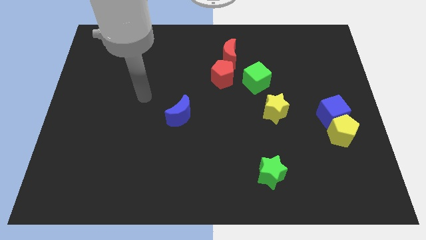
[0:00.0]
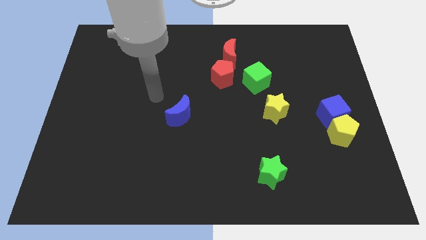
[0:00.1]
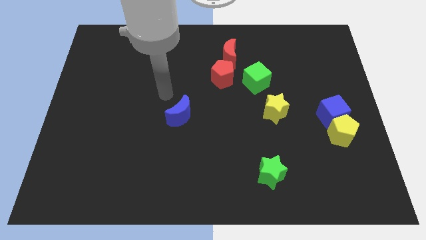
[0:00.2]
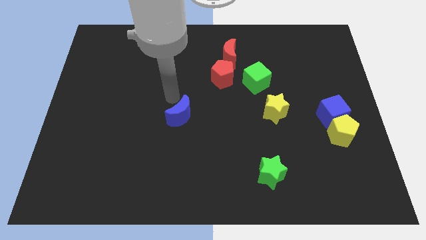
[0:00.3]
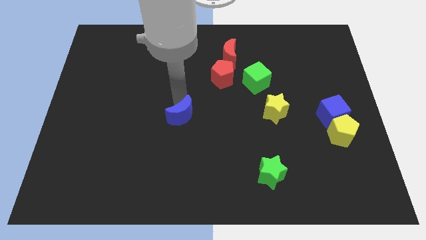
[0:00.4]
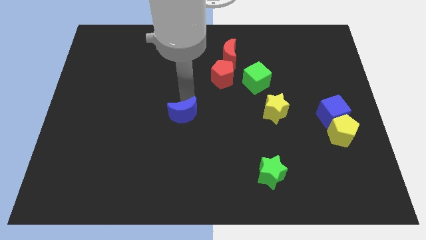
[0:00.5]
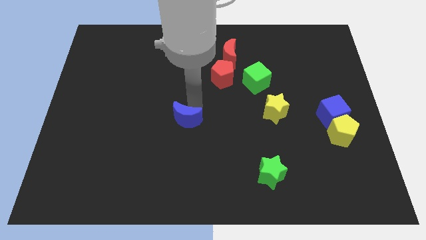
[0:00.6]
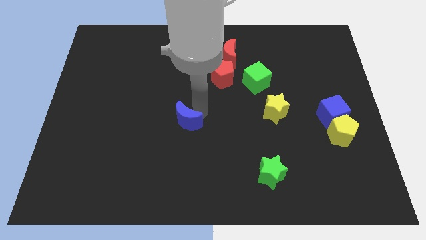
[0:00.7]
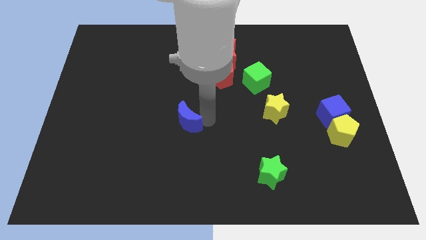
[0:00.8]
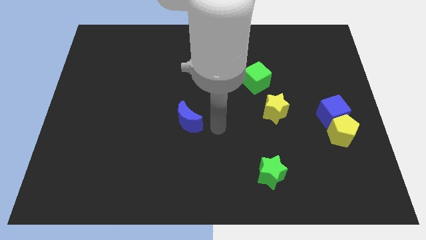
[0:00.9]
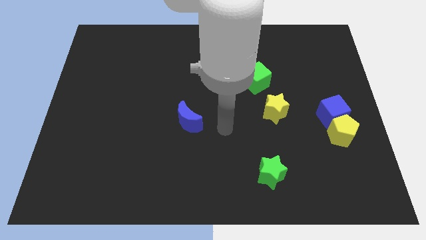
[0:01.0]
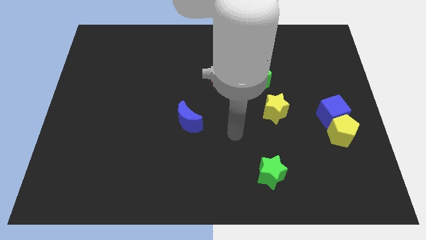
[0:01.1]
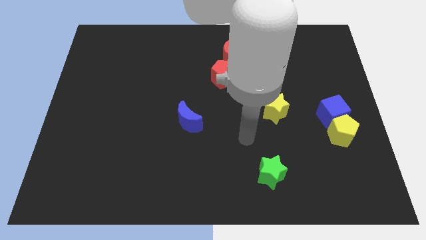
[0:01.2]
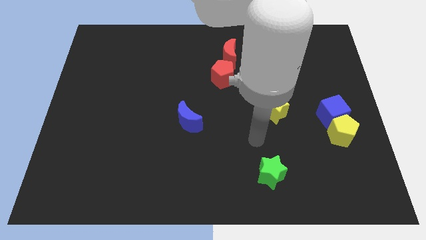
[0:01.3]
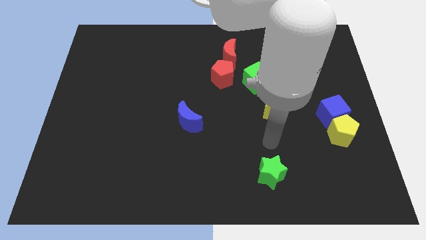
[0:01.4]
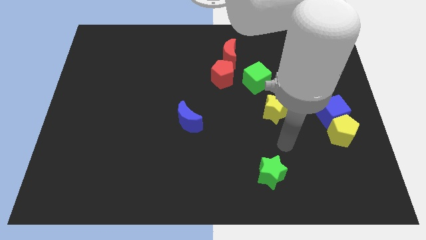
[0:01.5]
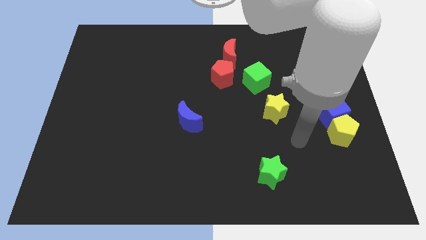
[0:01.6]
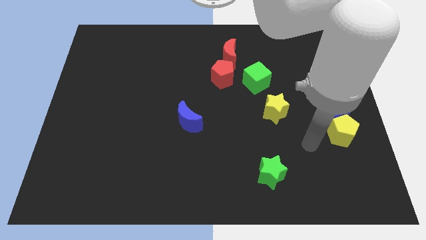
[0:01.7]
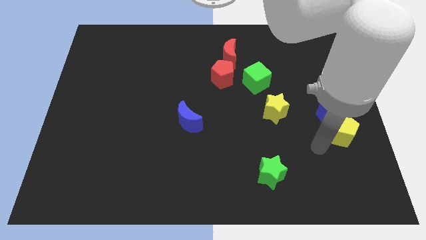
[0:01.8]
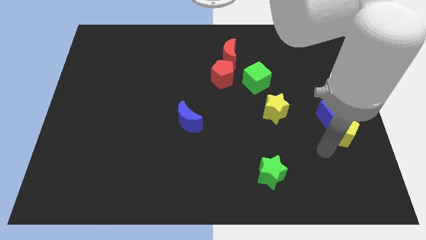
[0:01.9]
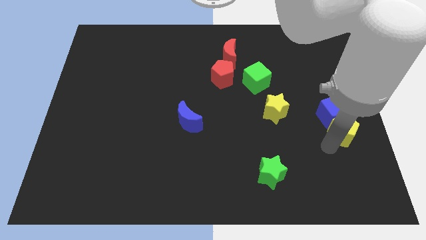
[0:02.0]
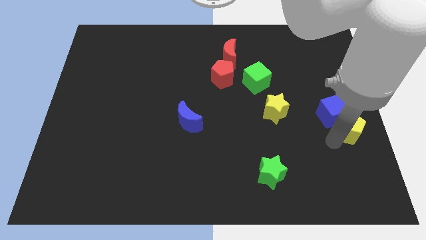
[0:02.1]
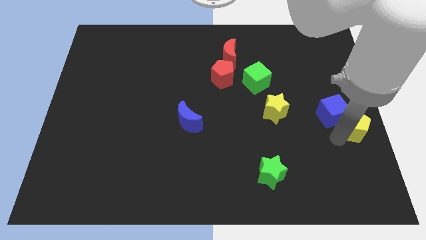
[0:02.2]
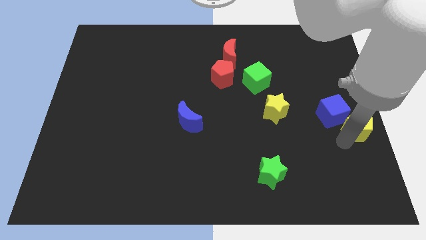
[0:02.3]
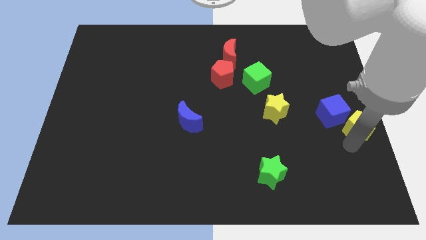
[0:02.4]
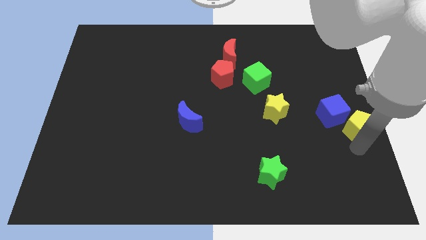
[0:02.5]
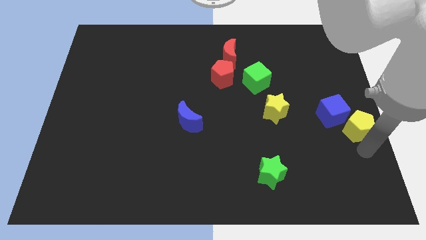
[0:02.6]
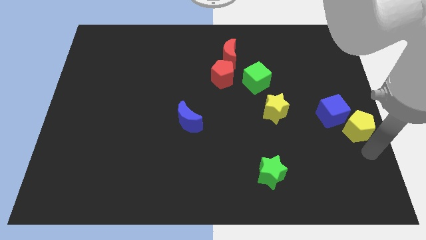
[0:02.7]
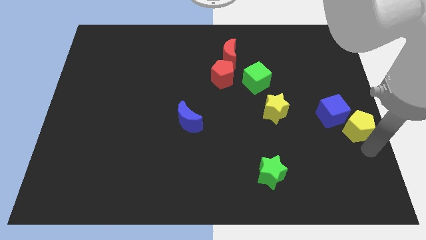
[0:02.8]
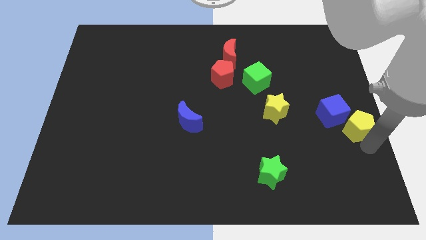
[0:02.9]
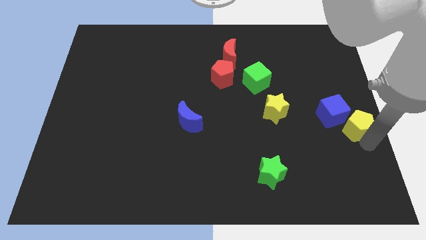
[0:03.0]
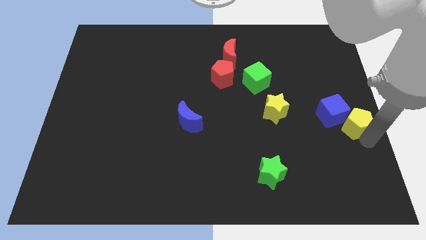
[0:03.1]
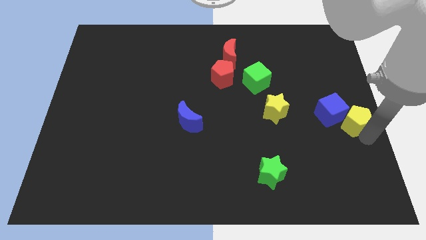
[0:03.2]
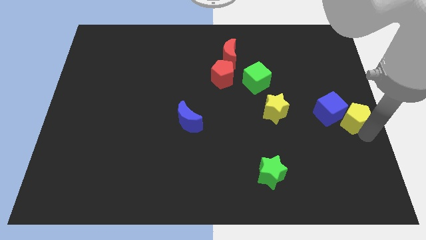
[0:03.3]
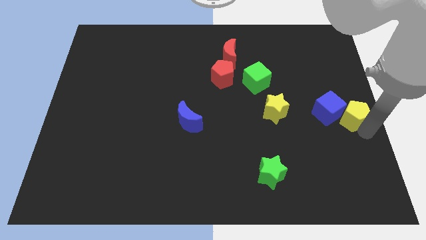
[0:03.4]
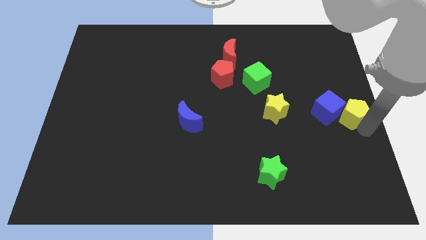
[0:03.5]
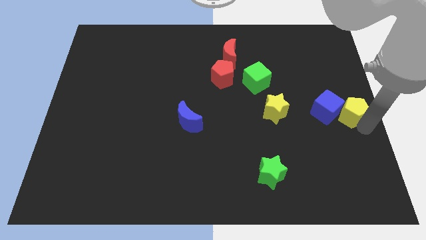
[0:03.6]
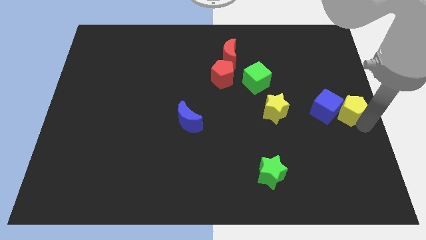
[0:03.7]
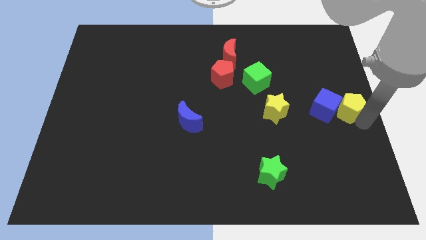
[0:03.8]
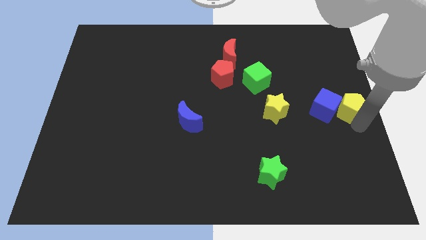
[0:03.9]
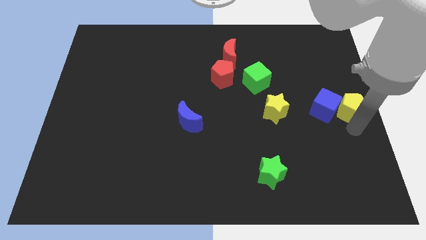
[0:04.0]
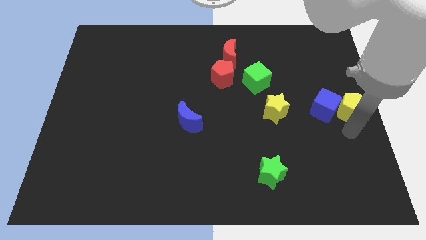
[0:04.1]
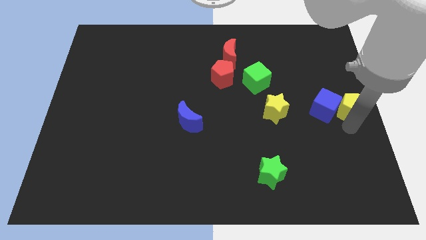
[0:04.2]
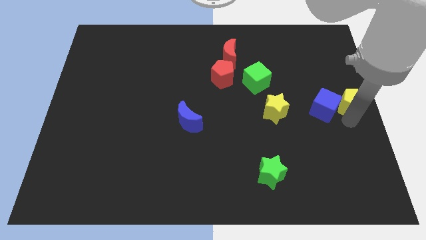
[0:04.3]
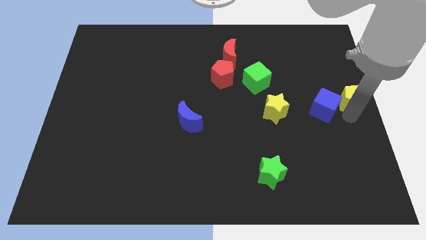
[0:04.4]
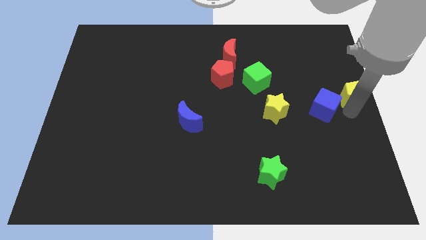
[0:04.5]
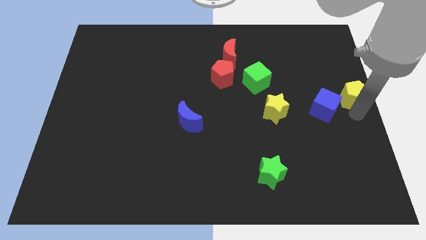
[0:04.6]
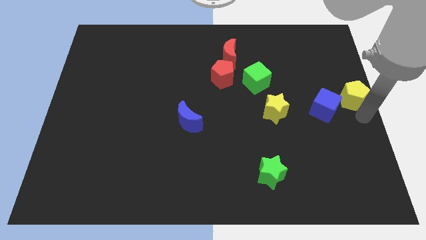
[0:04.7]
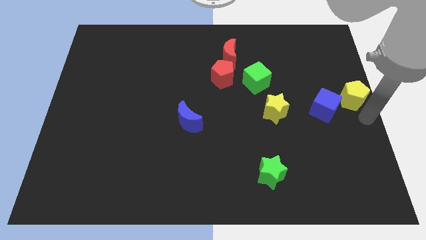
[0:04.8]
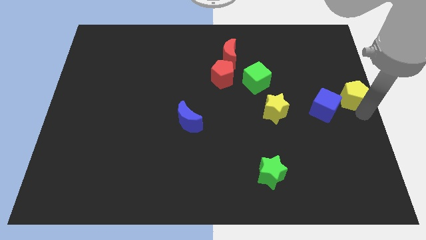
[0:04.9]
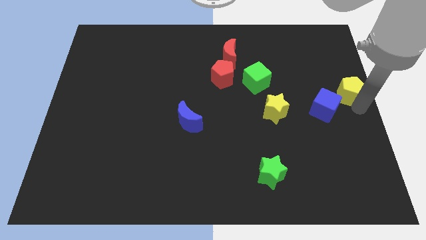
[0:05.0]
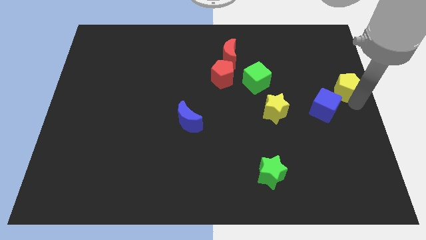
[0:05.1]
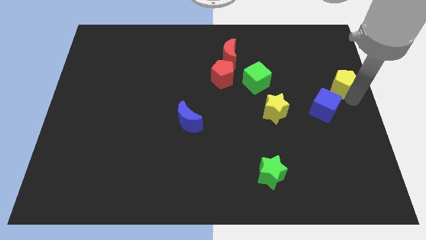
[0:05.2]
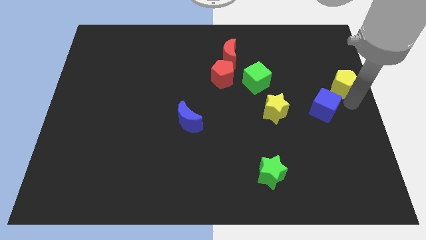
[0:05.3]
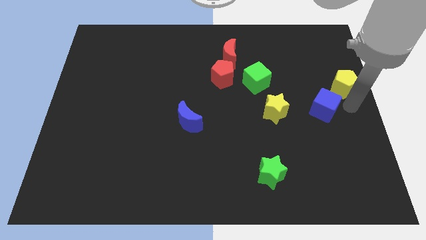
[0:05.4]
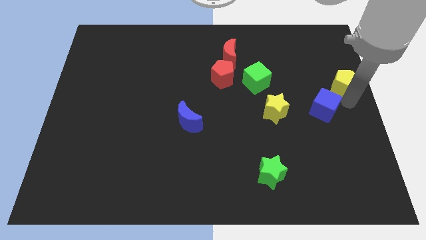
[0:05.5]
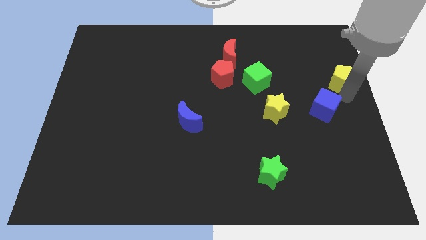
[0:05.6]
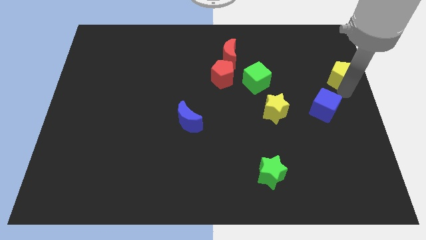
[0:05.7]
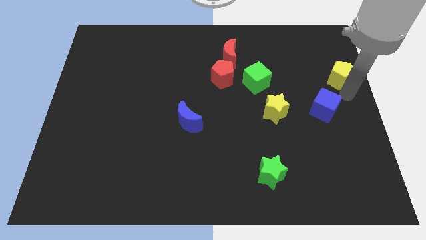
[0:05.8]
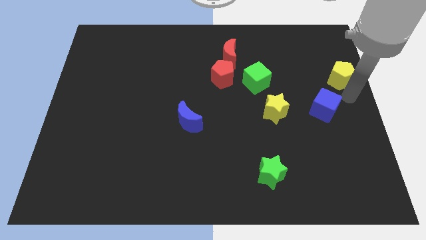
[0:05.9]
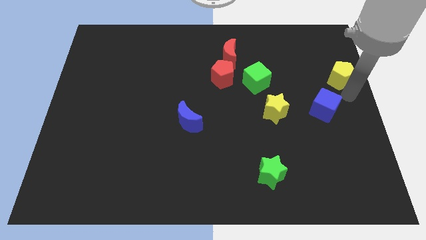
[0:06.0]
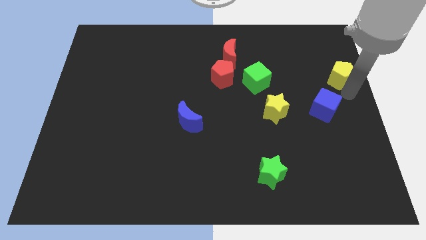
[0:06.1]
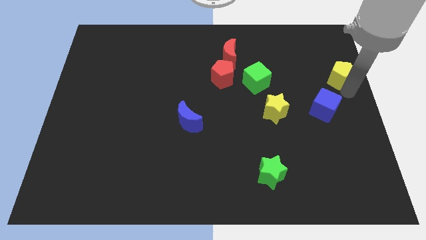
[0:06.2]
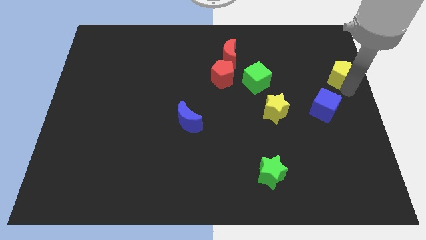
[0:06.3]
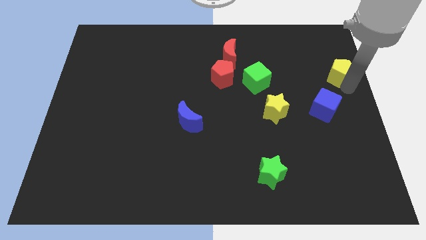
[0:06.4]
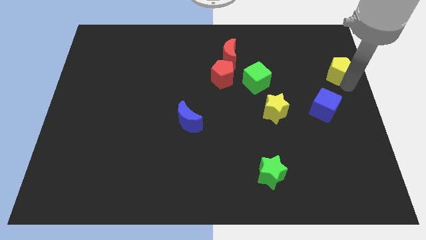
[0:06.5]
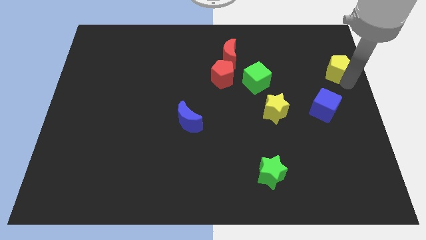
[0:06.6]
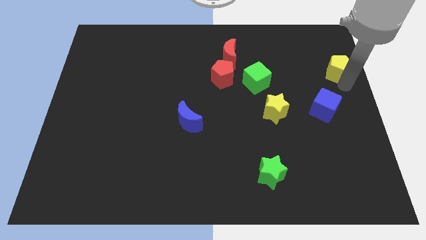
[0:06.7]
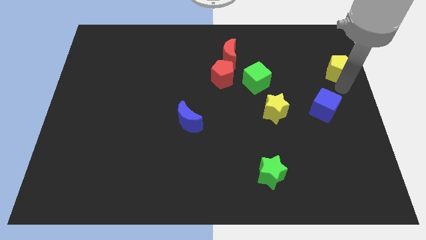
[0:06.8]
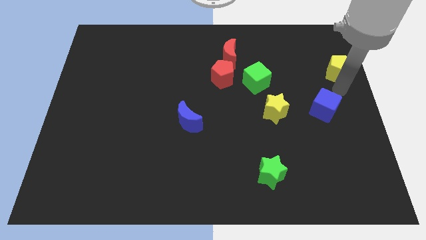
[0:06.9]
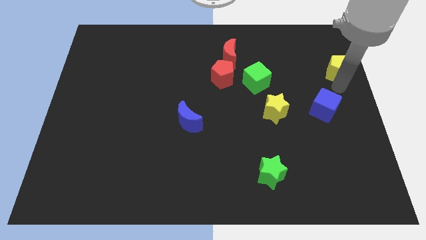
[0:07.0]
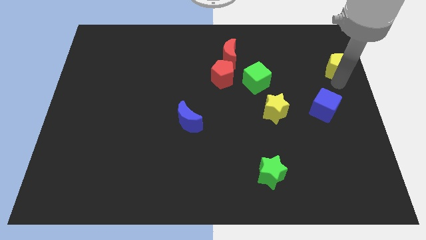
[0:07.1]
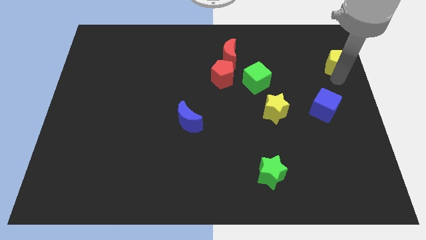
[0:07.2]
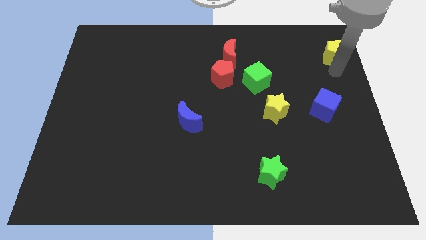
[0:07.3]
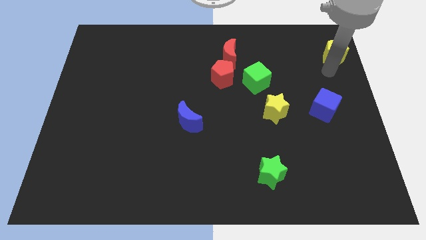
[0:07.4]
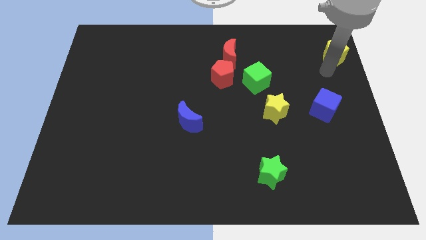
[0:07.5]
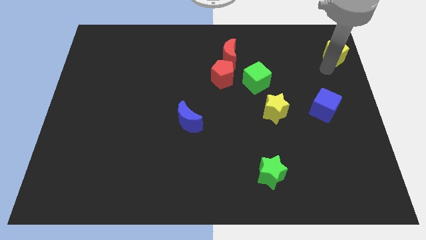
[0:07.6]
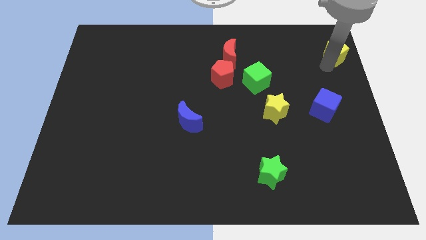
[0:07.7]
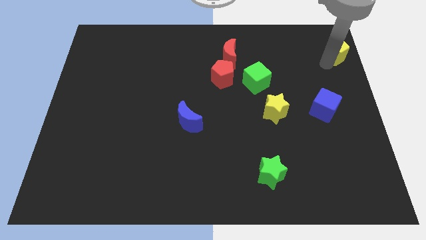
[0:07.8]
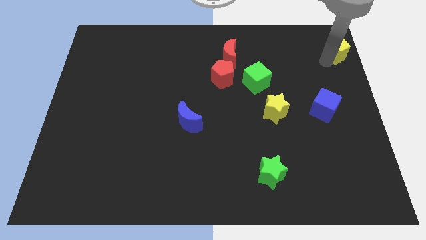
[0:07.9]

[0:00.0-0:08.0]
put the yellow pentagon to the upper right corner
